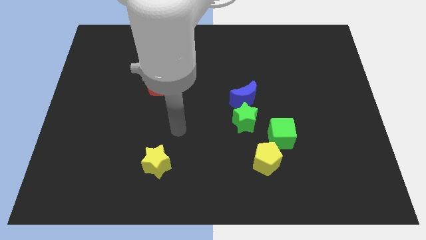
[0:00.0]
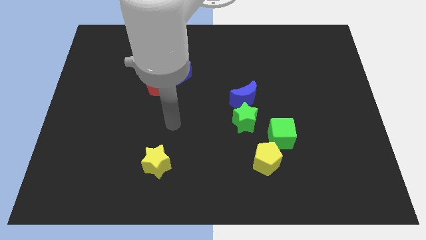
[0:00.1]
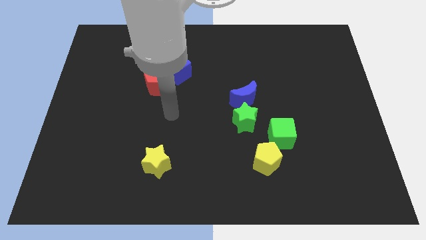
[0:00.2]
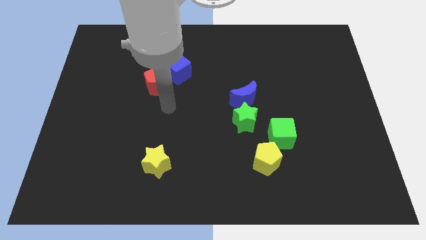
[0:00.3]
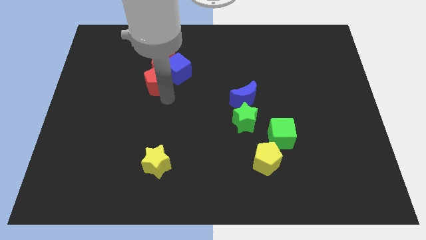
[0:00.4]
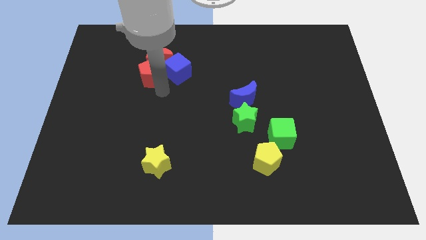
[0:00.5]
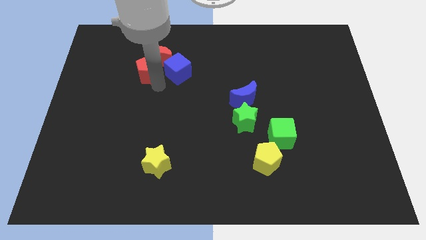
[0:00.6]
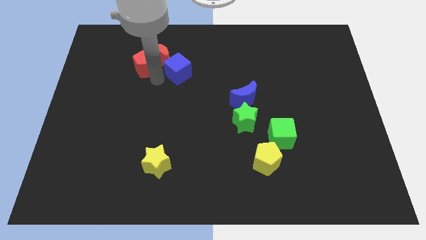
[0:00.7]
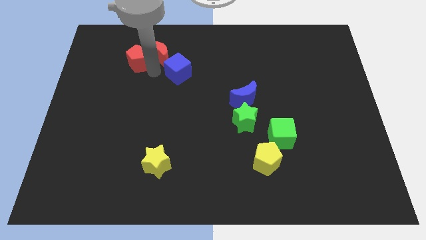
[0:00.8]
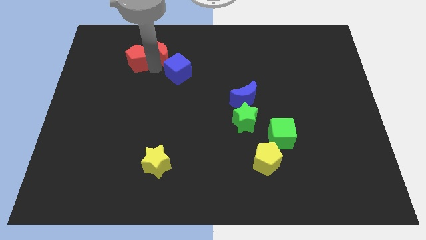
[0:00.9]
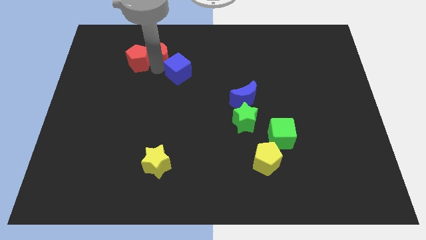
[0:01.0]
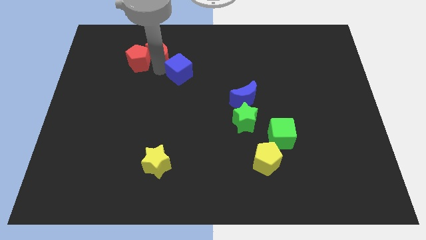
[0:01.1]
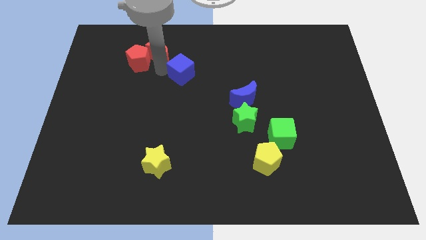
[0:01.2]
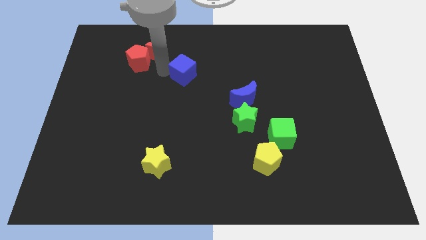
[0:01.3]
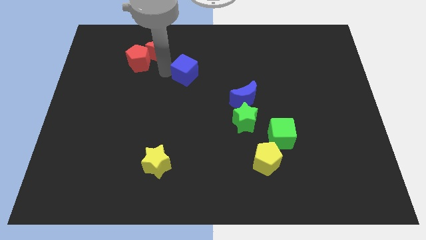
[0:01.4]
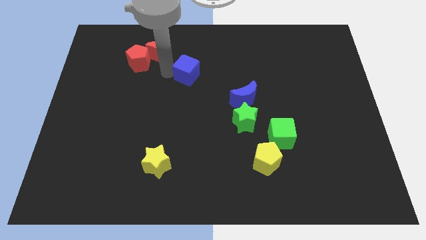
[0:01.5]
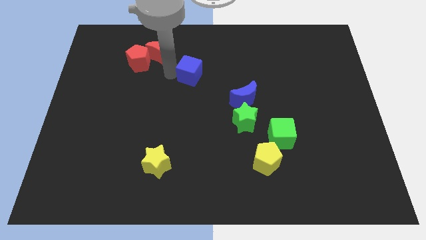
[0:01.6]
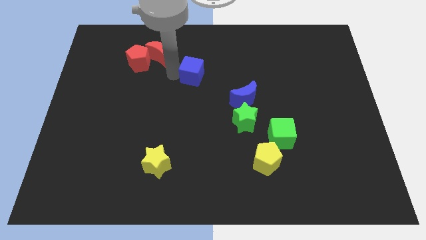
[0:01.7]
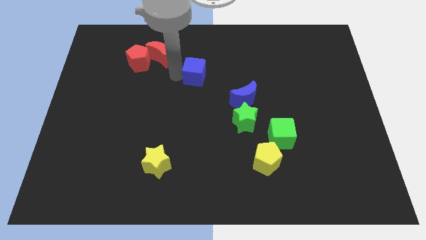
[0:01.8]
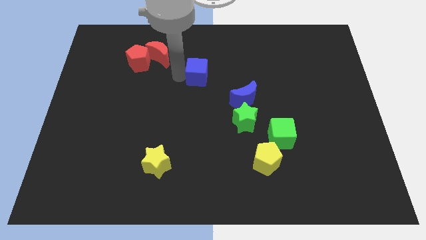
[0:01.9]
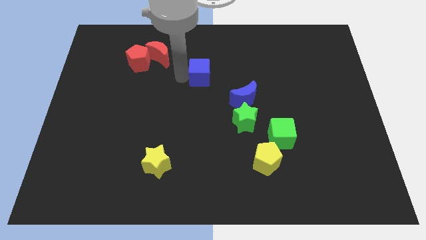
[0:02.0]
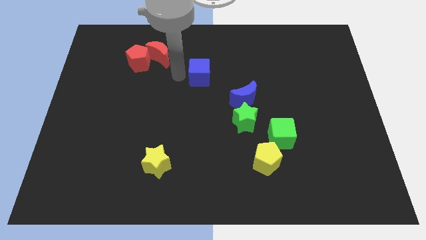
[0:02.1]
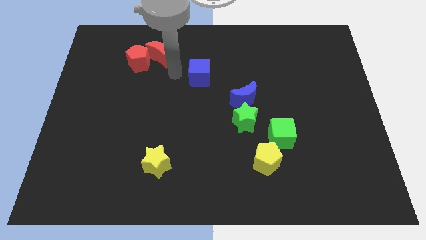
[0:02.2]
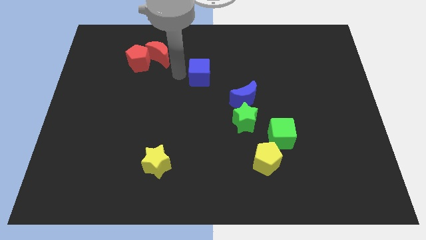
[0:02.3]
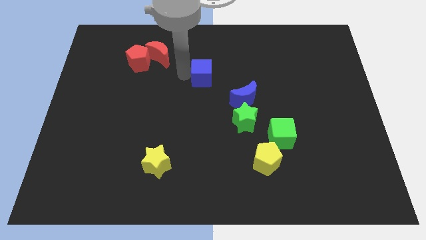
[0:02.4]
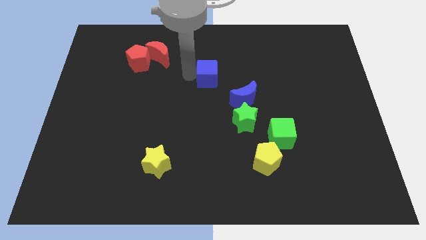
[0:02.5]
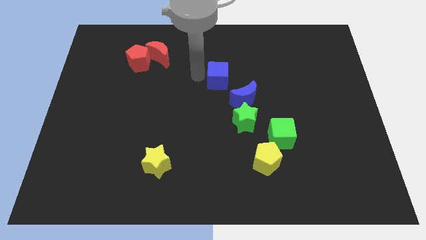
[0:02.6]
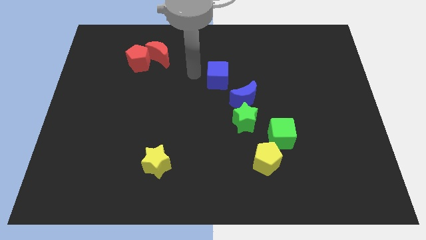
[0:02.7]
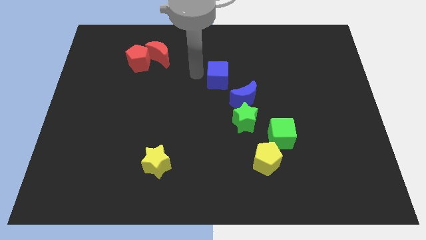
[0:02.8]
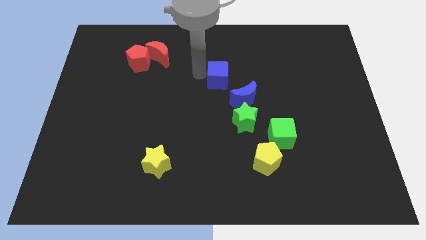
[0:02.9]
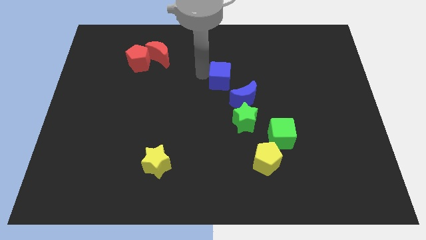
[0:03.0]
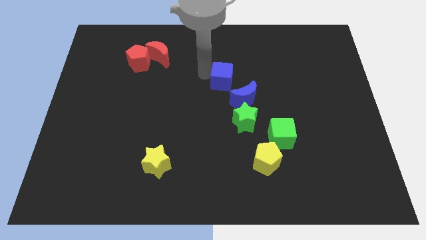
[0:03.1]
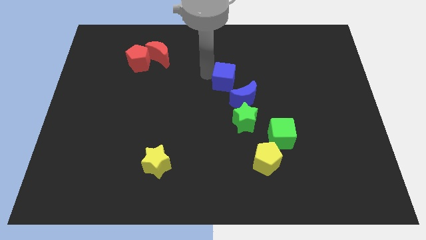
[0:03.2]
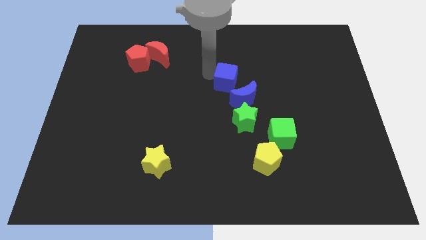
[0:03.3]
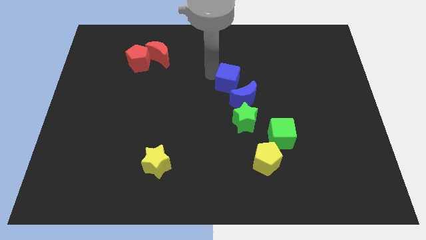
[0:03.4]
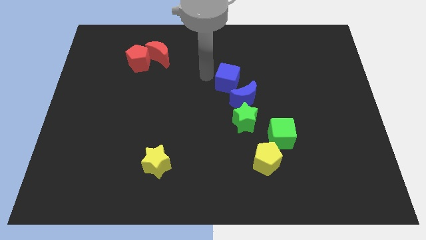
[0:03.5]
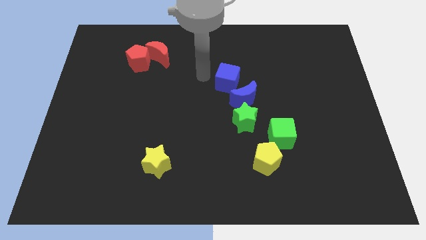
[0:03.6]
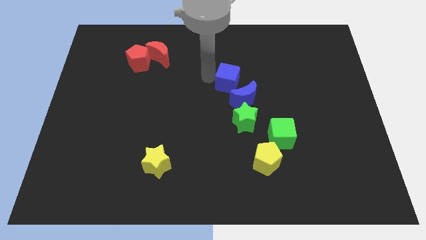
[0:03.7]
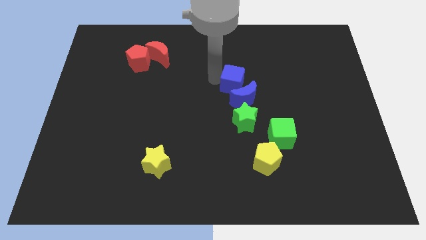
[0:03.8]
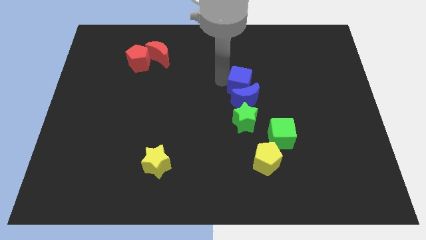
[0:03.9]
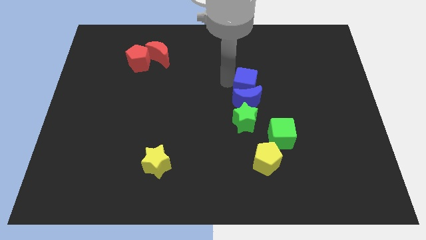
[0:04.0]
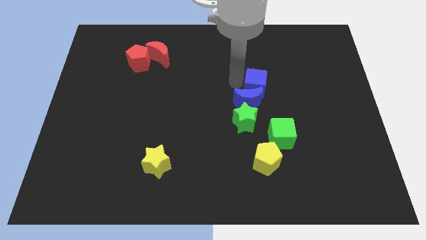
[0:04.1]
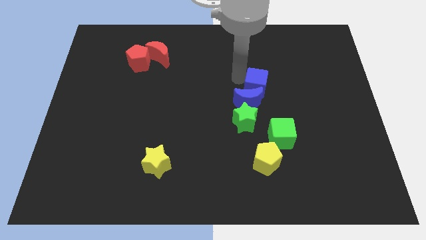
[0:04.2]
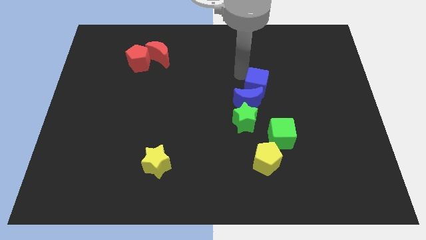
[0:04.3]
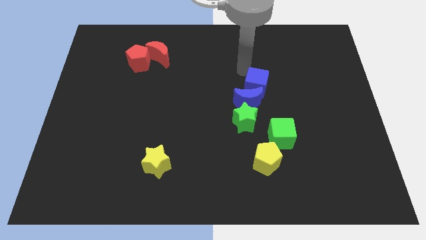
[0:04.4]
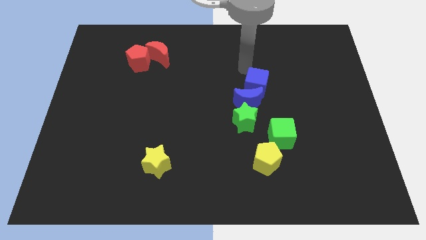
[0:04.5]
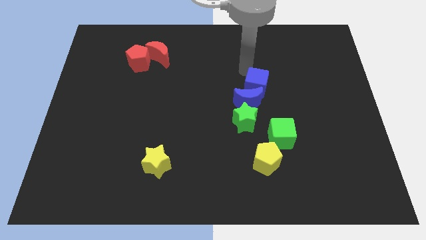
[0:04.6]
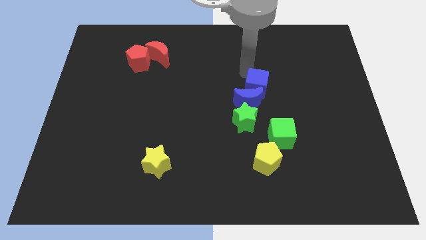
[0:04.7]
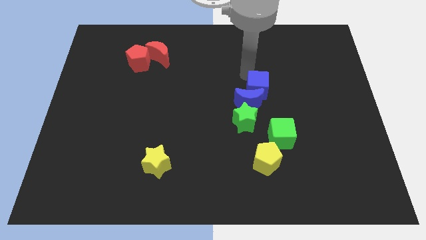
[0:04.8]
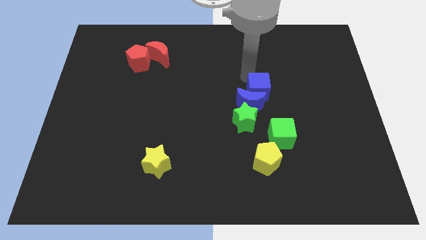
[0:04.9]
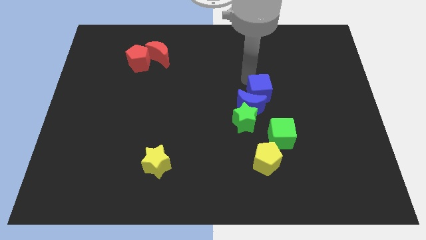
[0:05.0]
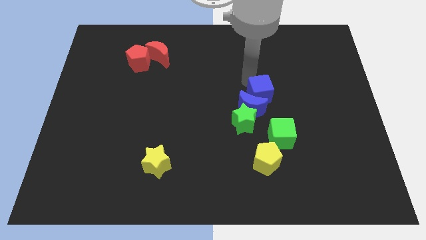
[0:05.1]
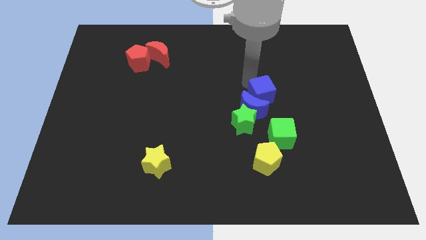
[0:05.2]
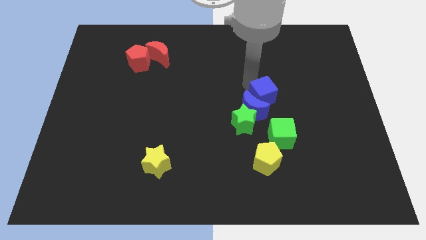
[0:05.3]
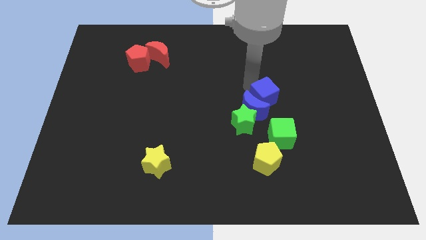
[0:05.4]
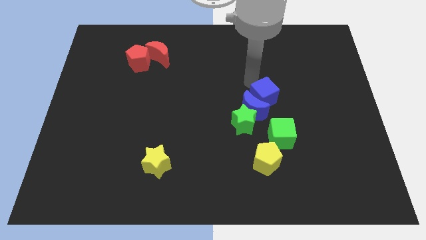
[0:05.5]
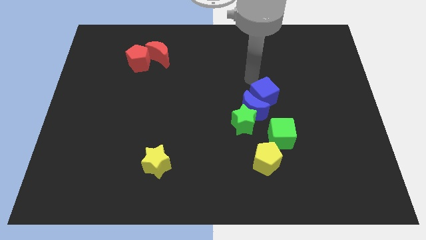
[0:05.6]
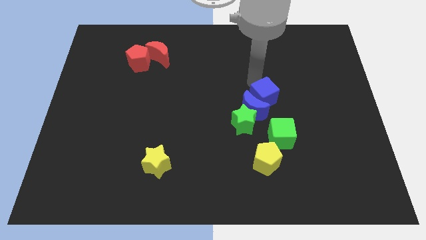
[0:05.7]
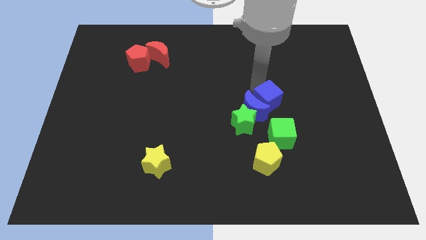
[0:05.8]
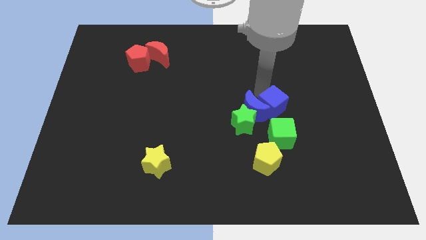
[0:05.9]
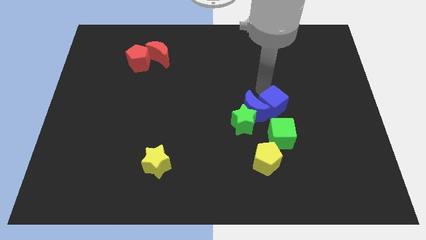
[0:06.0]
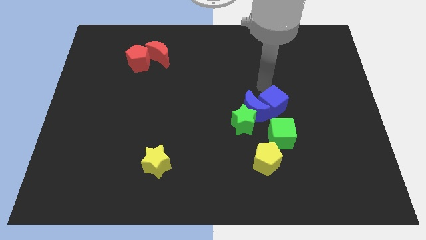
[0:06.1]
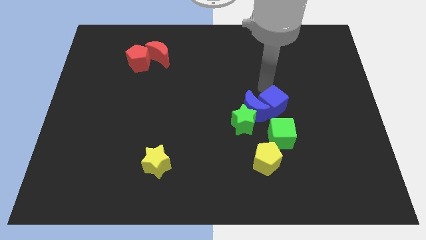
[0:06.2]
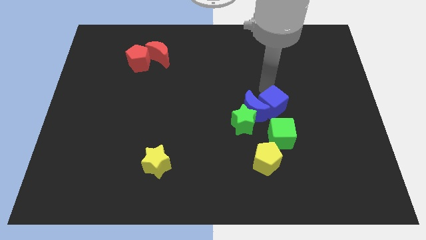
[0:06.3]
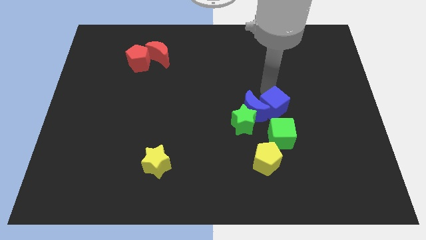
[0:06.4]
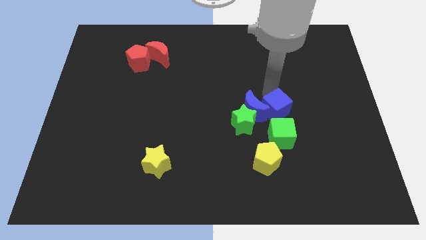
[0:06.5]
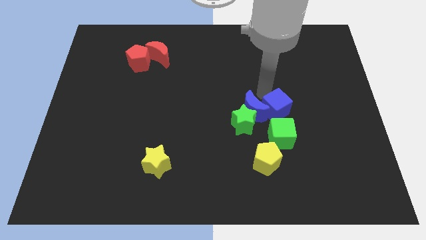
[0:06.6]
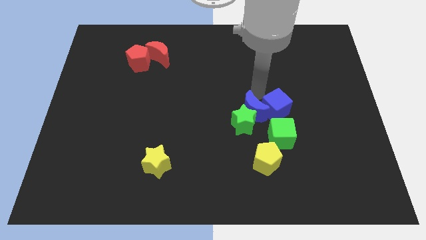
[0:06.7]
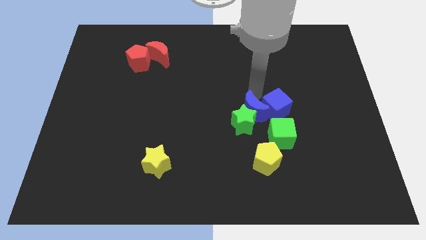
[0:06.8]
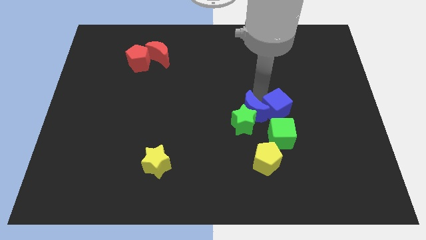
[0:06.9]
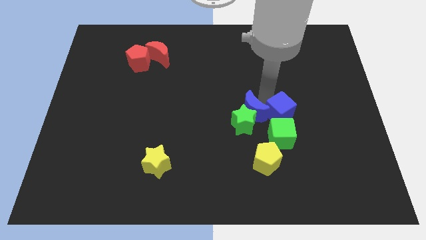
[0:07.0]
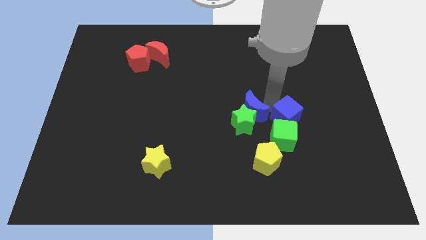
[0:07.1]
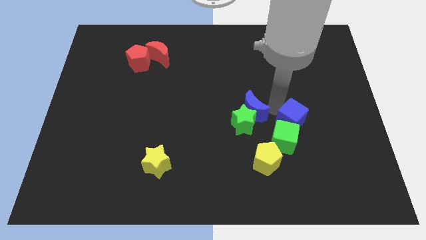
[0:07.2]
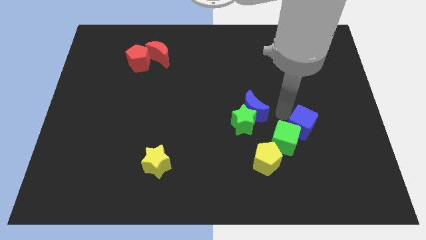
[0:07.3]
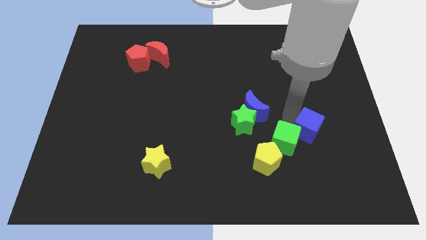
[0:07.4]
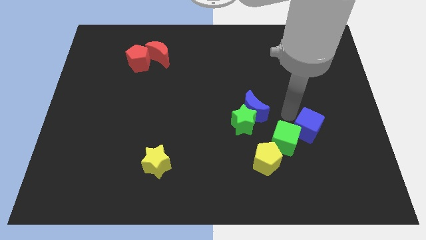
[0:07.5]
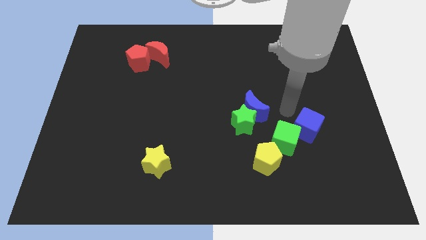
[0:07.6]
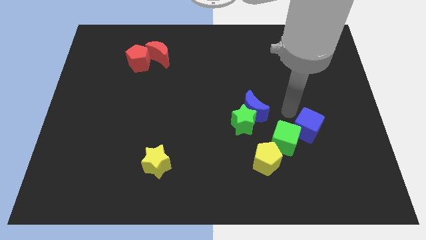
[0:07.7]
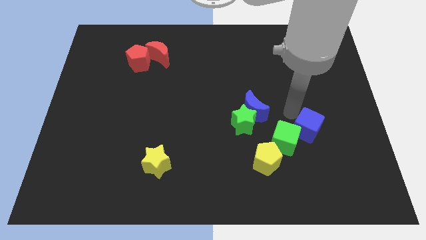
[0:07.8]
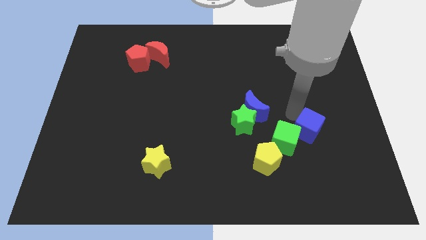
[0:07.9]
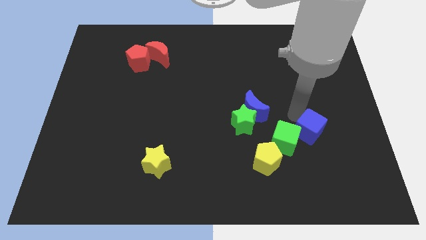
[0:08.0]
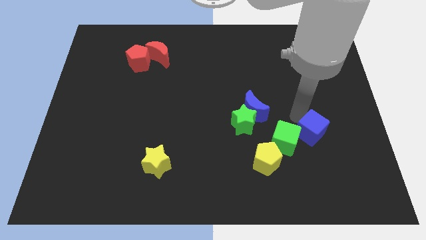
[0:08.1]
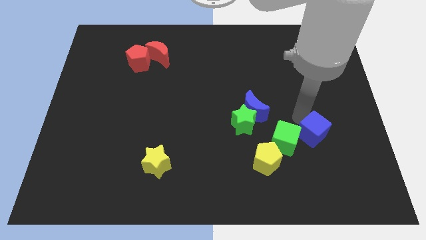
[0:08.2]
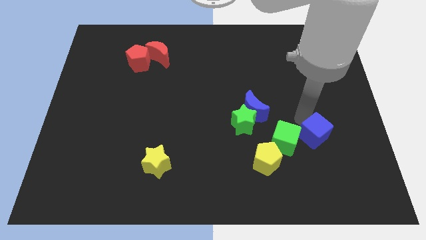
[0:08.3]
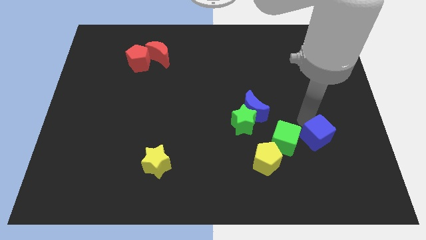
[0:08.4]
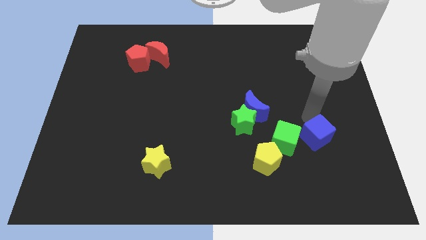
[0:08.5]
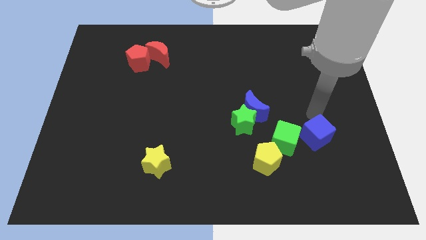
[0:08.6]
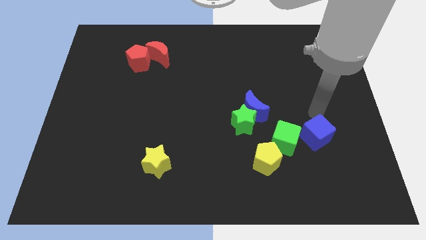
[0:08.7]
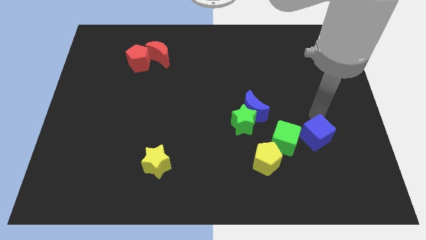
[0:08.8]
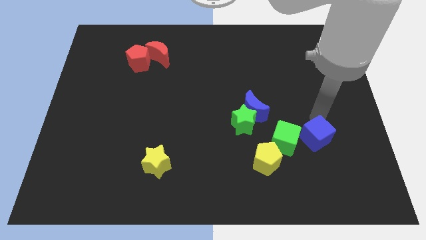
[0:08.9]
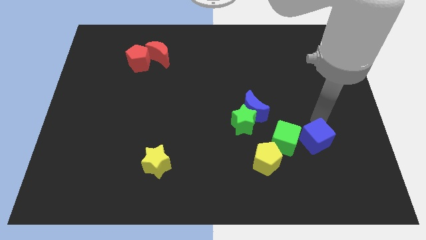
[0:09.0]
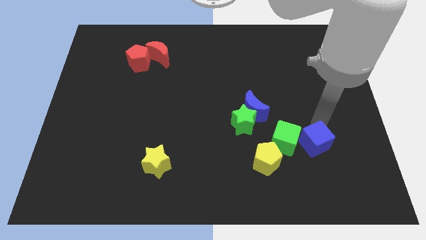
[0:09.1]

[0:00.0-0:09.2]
put the blue cube right of the yellow pentagon
